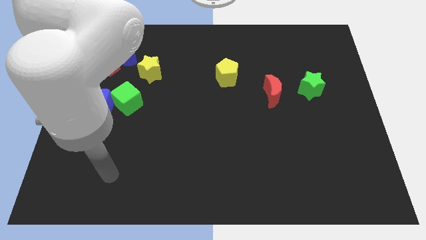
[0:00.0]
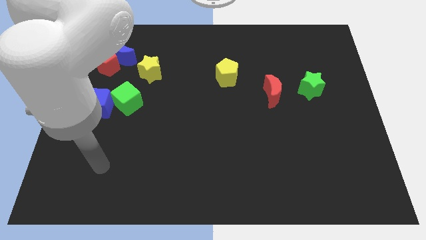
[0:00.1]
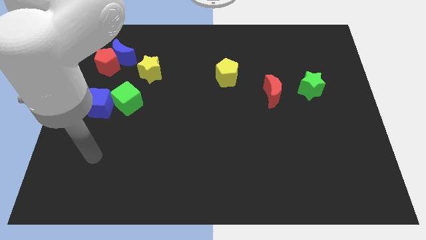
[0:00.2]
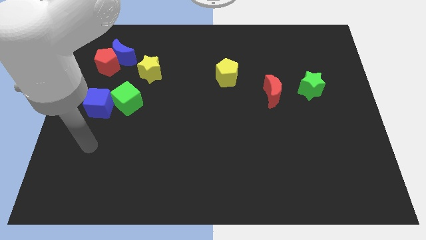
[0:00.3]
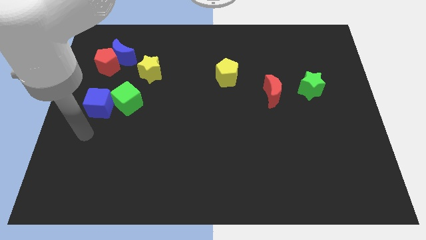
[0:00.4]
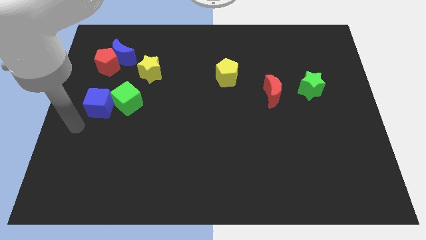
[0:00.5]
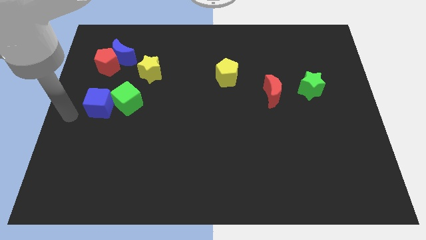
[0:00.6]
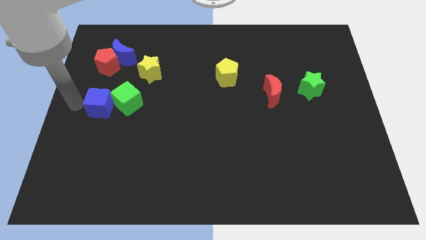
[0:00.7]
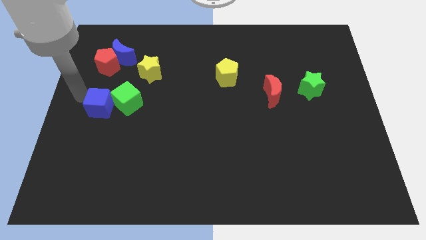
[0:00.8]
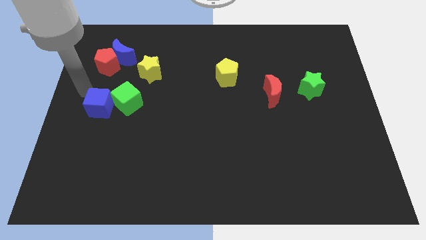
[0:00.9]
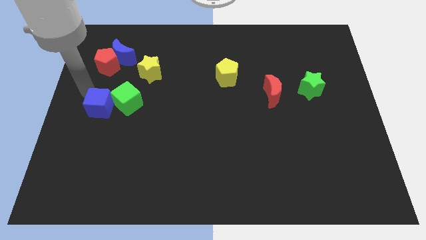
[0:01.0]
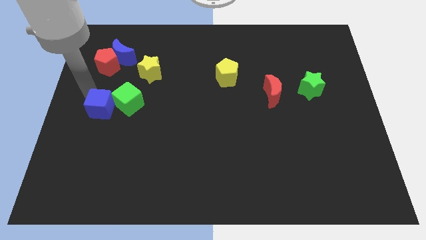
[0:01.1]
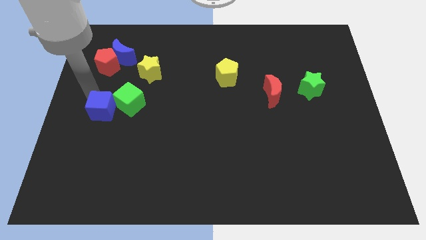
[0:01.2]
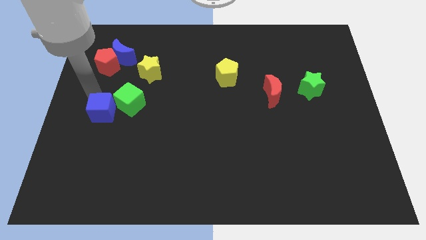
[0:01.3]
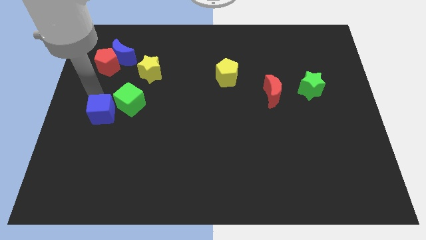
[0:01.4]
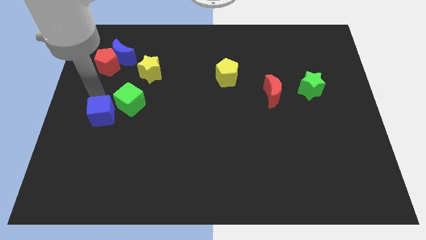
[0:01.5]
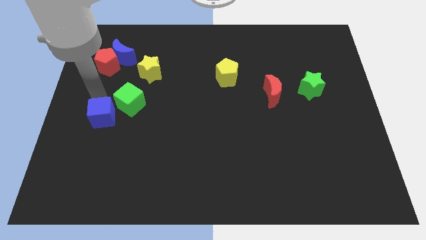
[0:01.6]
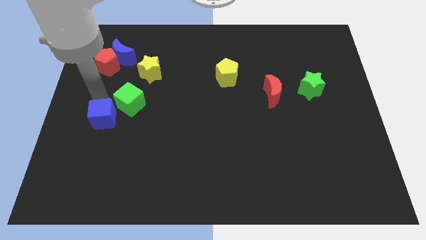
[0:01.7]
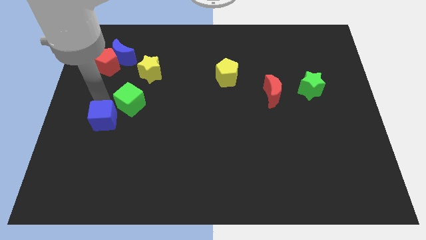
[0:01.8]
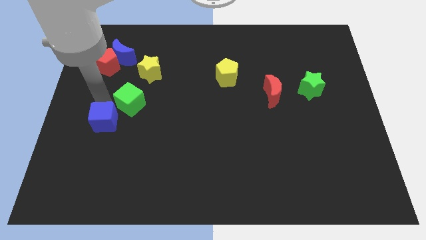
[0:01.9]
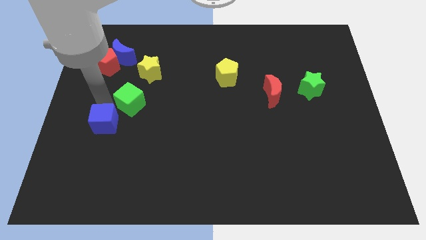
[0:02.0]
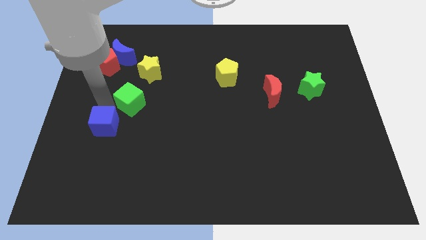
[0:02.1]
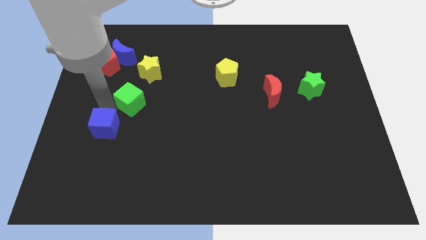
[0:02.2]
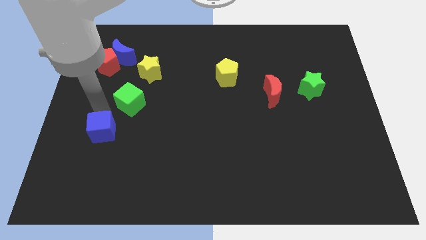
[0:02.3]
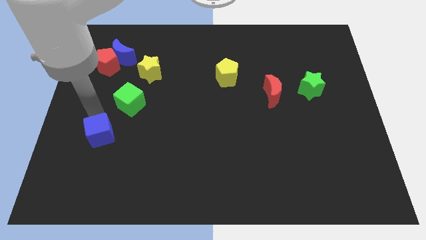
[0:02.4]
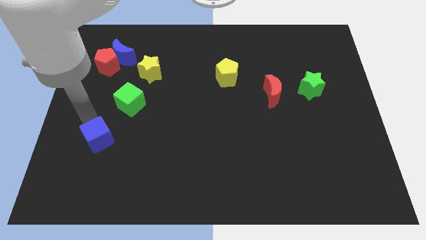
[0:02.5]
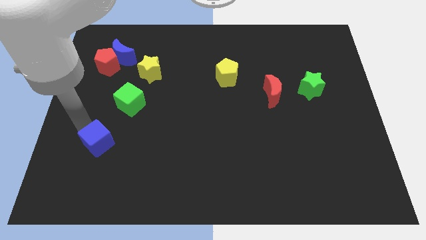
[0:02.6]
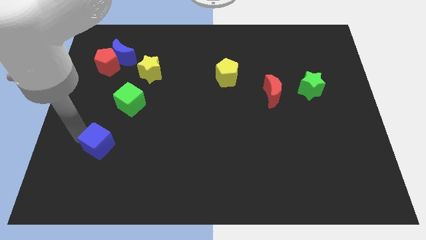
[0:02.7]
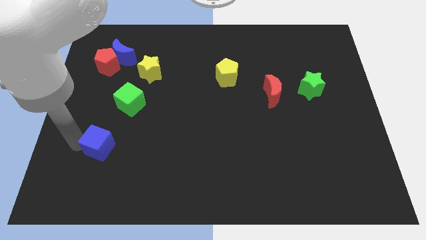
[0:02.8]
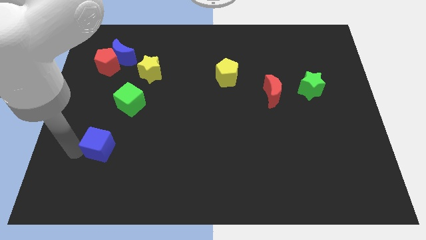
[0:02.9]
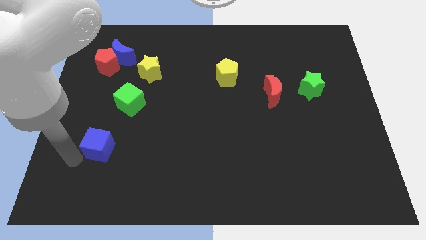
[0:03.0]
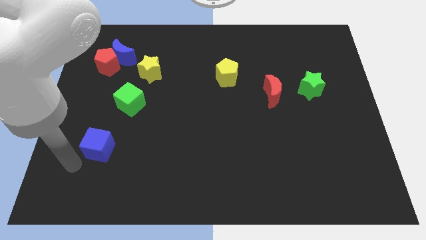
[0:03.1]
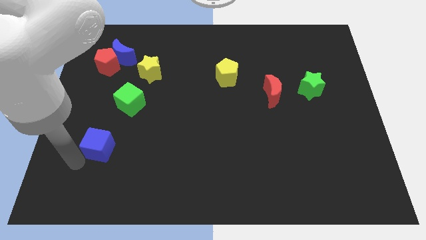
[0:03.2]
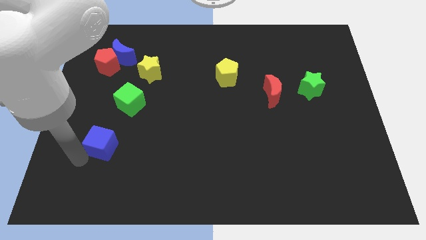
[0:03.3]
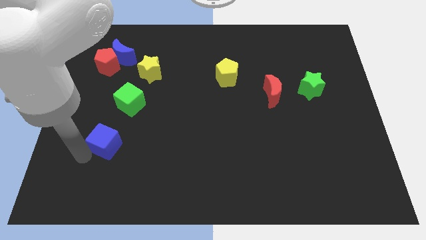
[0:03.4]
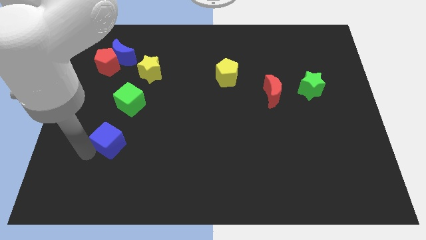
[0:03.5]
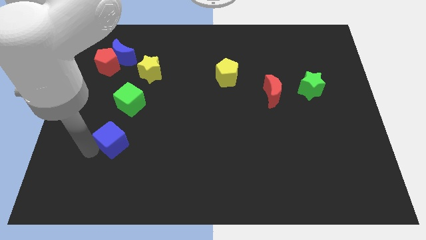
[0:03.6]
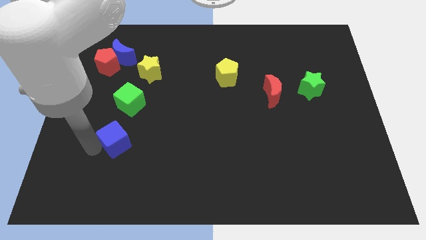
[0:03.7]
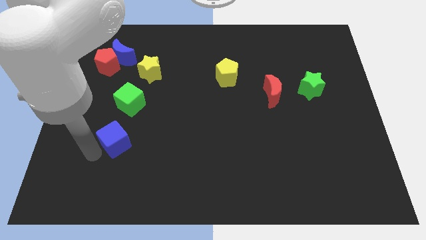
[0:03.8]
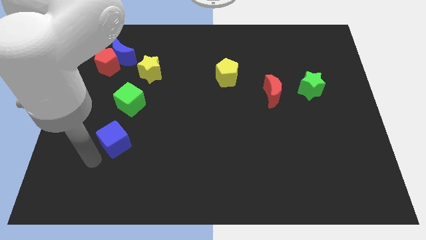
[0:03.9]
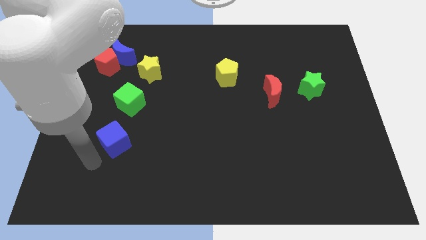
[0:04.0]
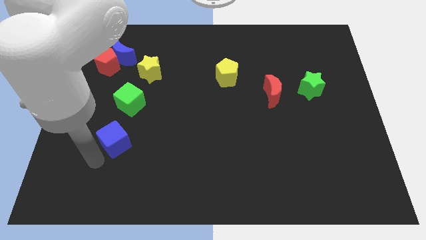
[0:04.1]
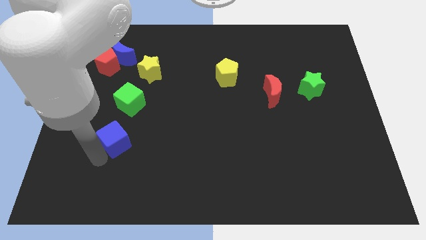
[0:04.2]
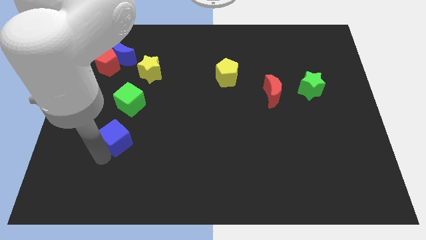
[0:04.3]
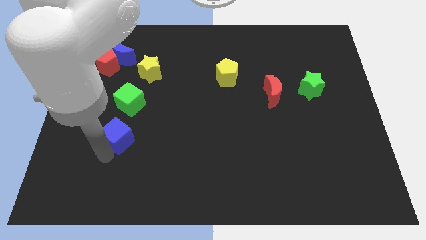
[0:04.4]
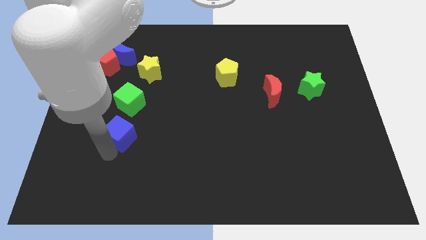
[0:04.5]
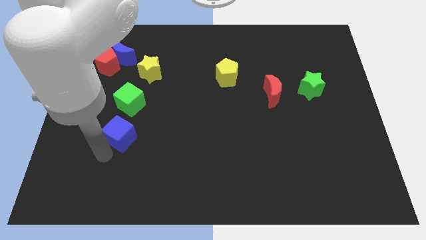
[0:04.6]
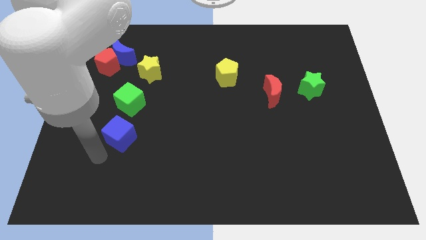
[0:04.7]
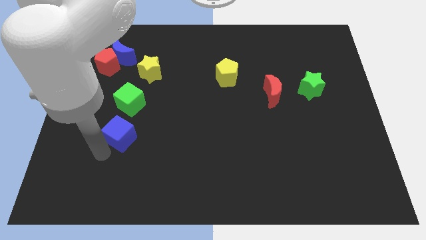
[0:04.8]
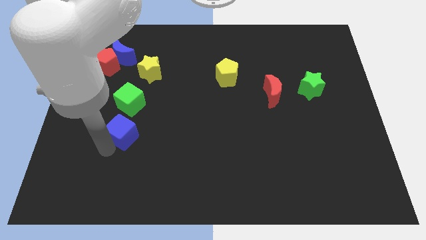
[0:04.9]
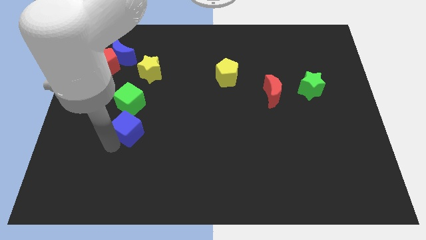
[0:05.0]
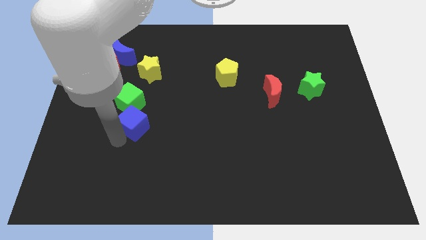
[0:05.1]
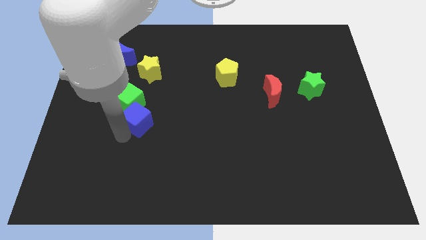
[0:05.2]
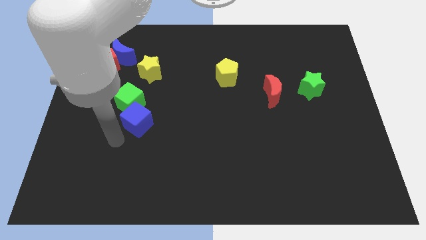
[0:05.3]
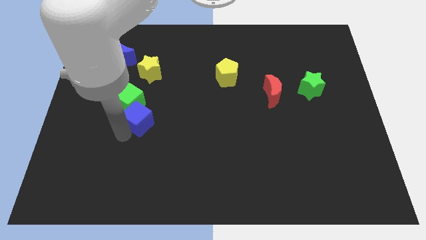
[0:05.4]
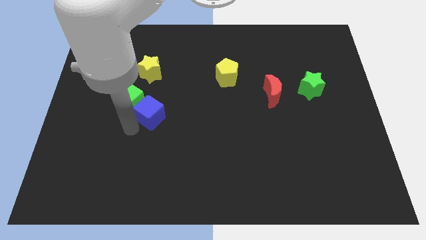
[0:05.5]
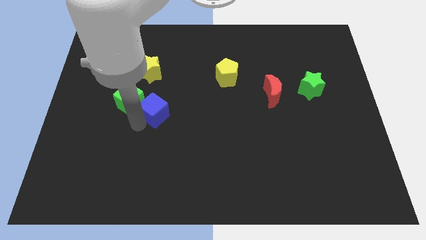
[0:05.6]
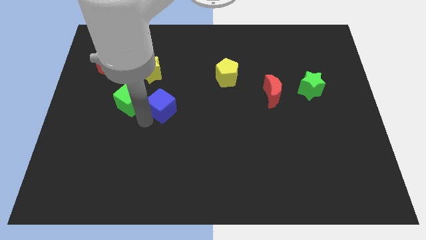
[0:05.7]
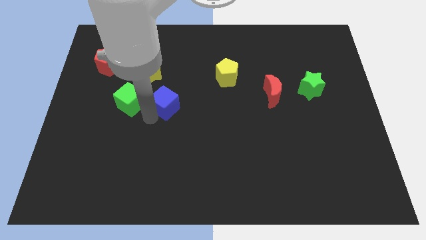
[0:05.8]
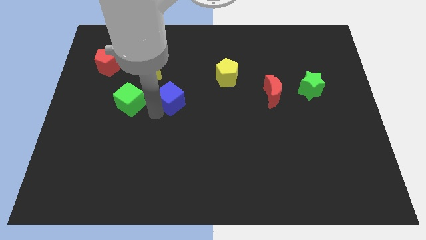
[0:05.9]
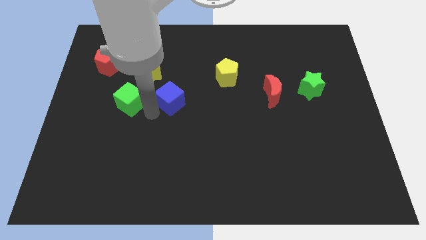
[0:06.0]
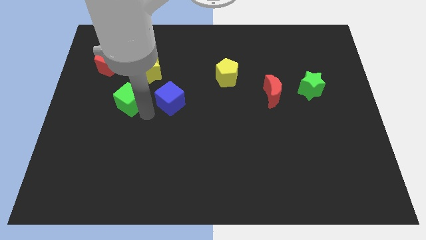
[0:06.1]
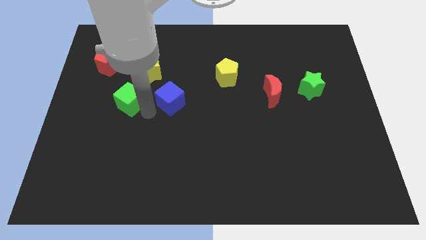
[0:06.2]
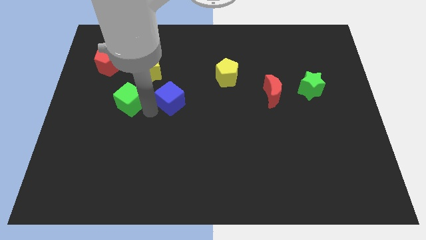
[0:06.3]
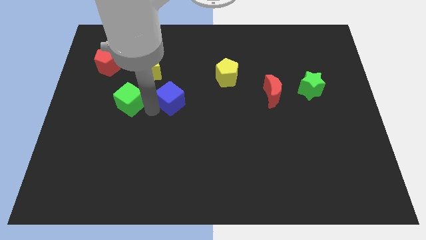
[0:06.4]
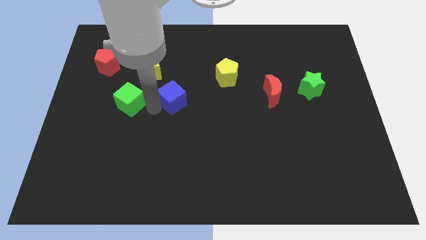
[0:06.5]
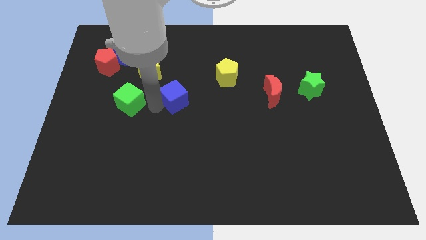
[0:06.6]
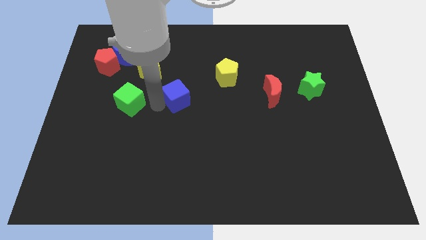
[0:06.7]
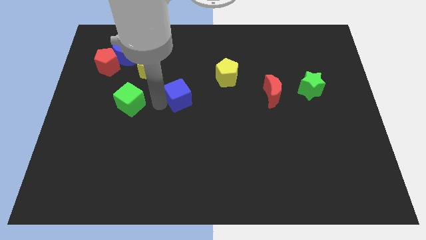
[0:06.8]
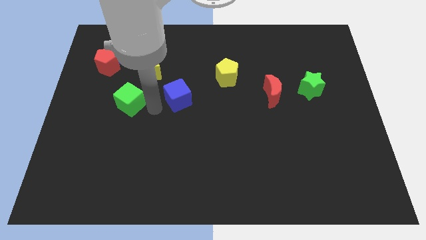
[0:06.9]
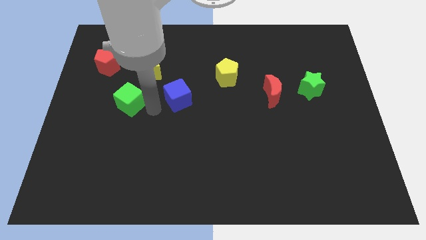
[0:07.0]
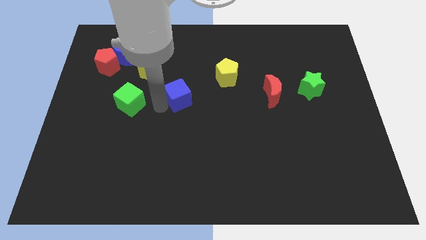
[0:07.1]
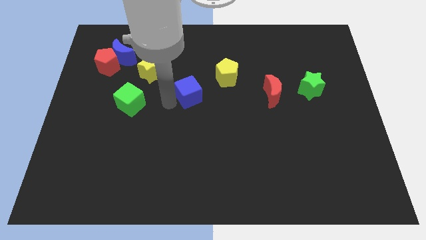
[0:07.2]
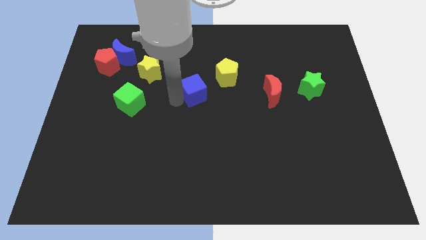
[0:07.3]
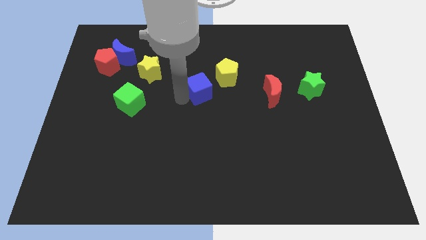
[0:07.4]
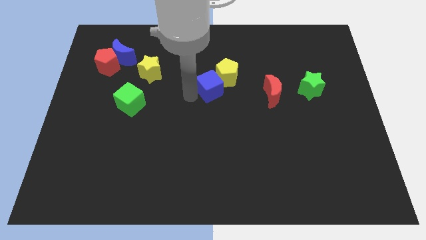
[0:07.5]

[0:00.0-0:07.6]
move the blue cube close to the yellow pentagon

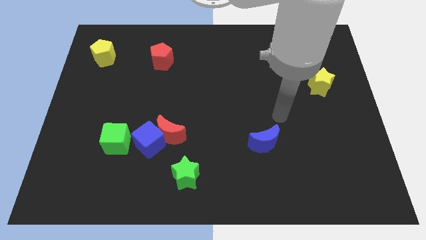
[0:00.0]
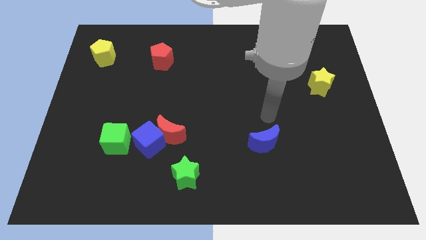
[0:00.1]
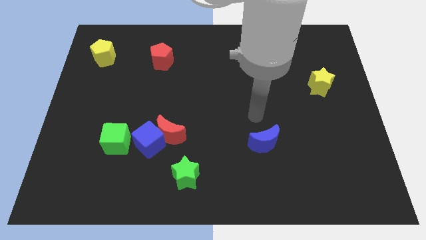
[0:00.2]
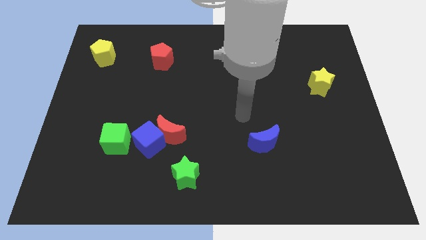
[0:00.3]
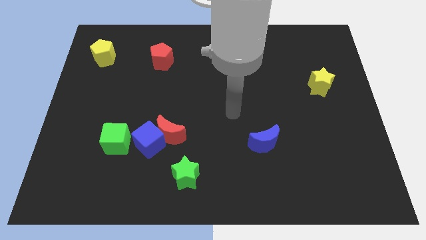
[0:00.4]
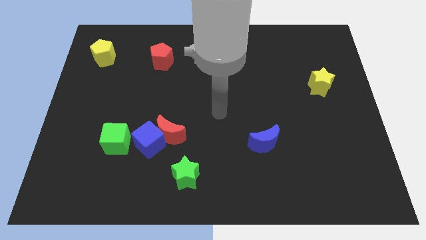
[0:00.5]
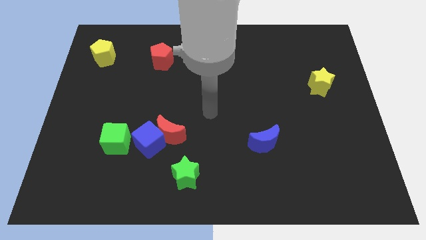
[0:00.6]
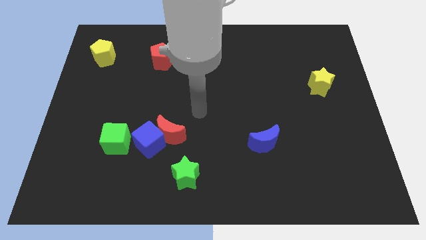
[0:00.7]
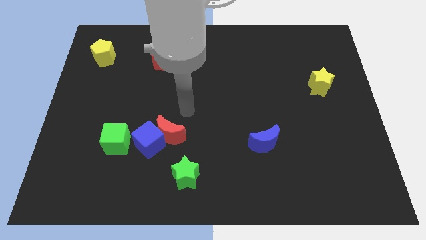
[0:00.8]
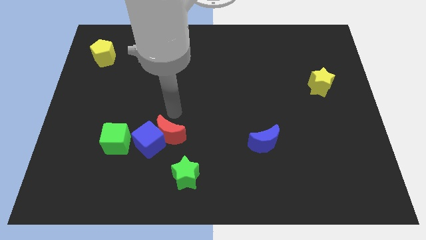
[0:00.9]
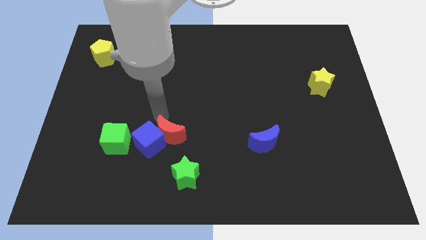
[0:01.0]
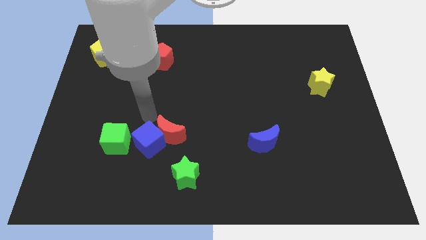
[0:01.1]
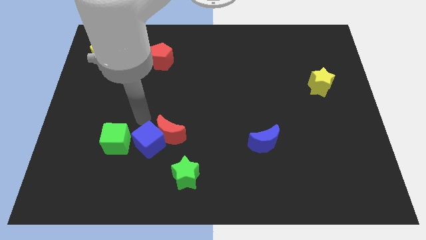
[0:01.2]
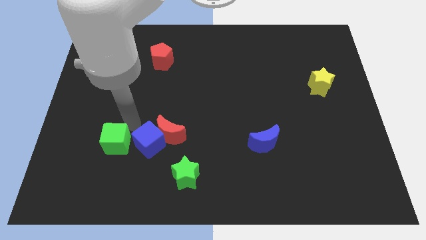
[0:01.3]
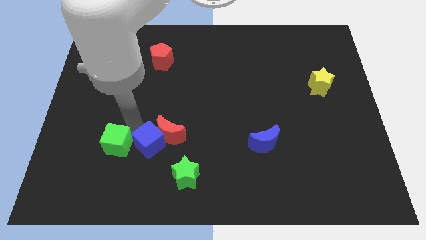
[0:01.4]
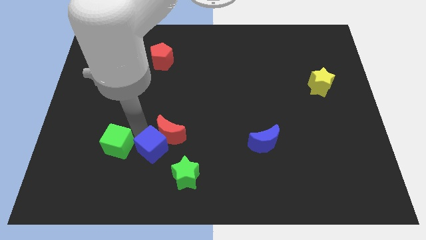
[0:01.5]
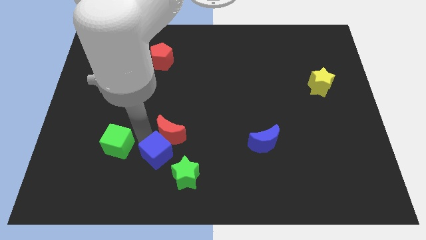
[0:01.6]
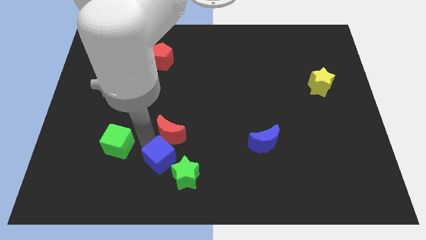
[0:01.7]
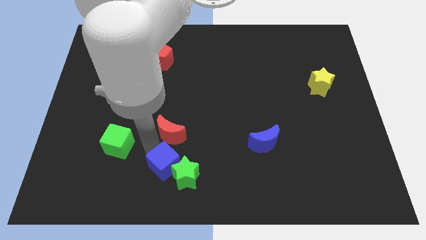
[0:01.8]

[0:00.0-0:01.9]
push the blue cube close to the green star
